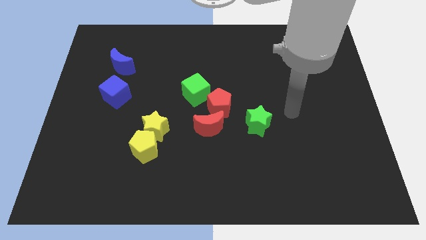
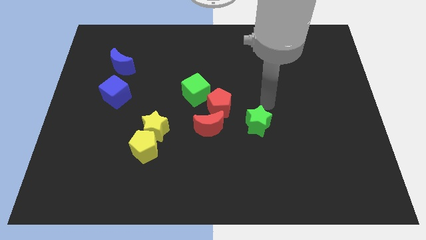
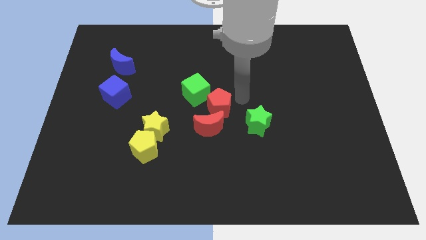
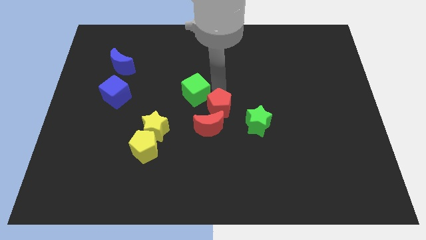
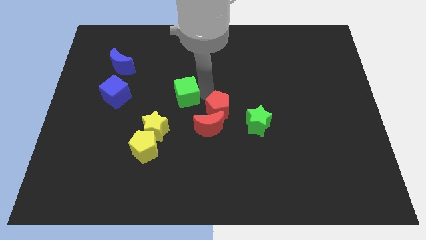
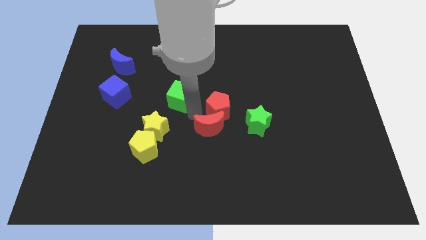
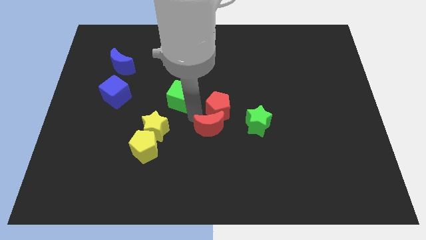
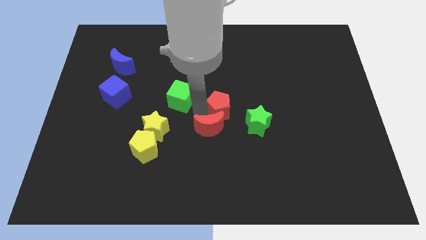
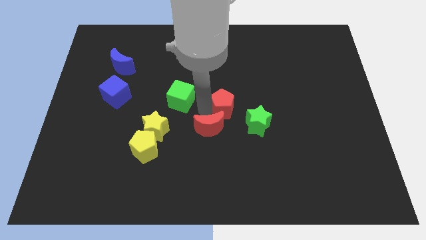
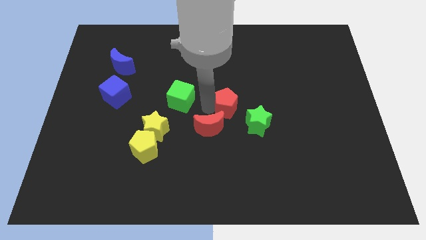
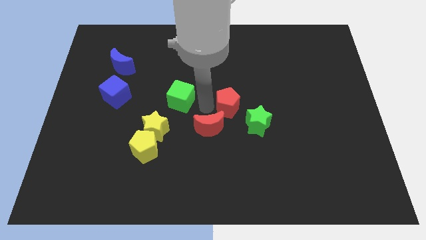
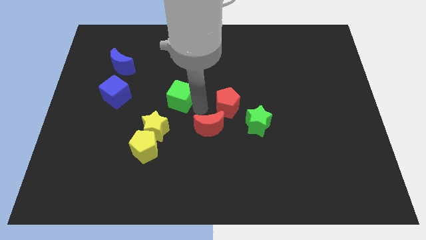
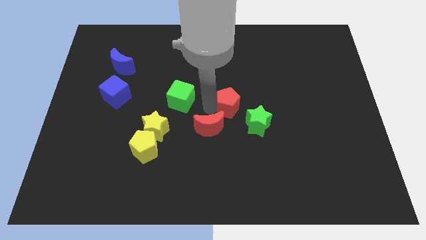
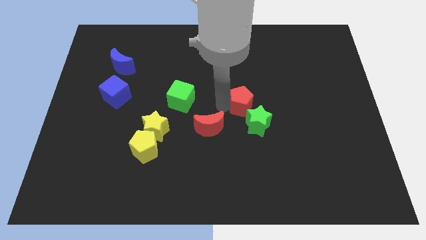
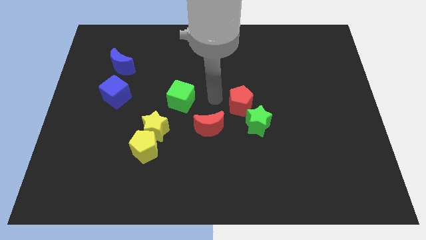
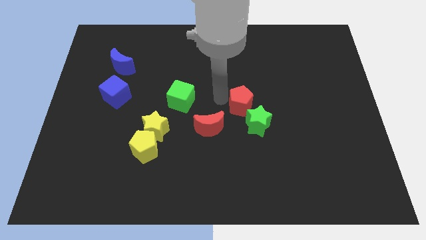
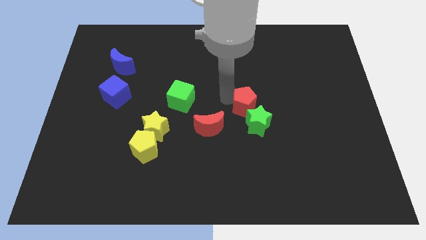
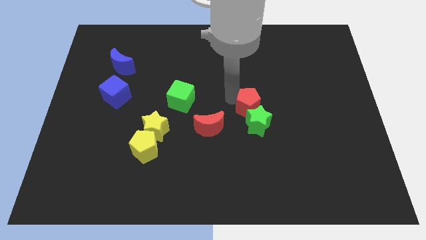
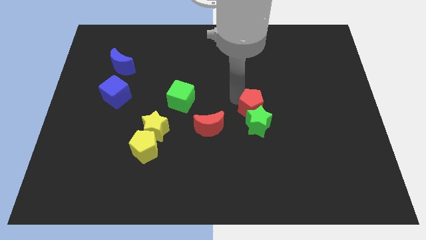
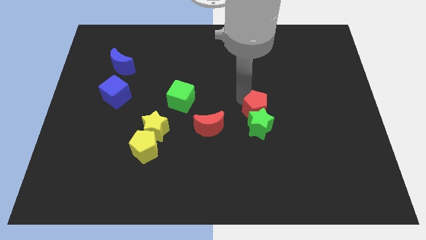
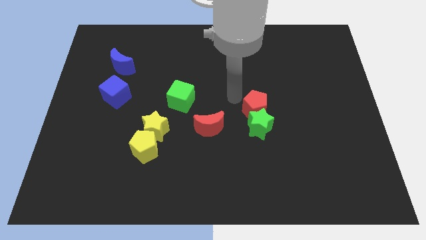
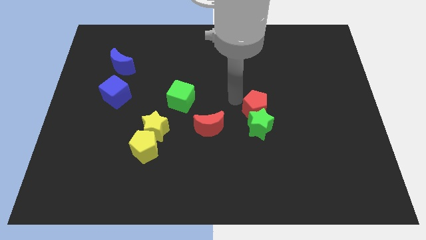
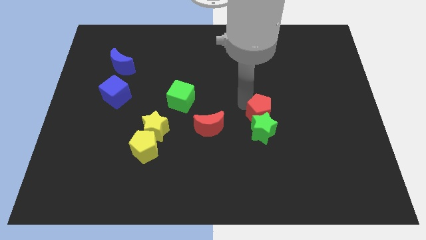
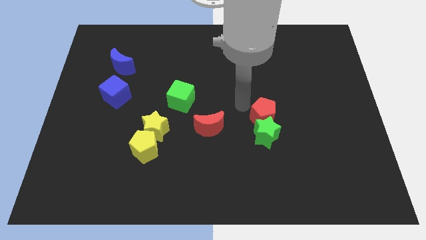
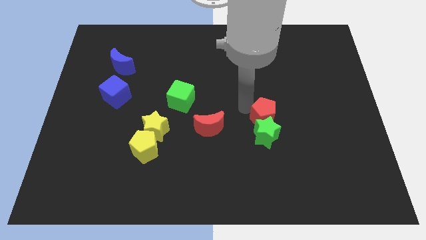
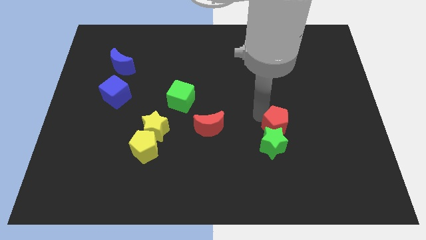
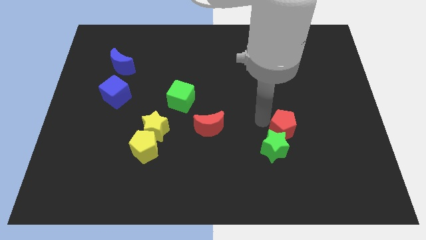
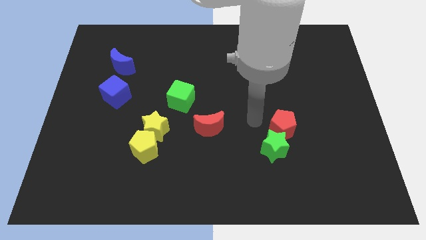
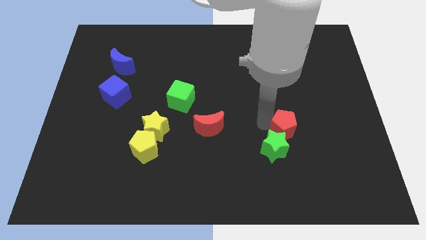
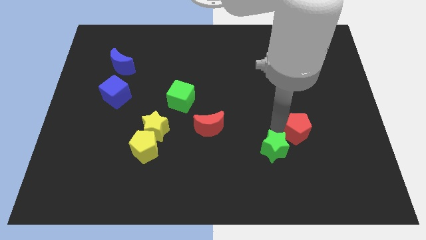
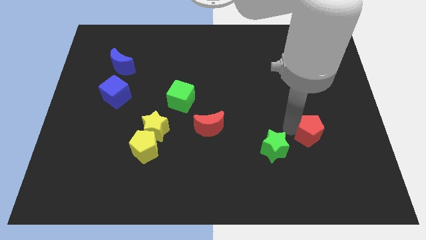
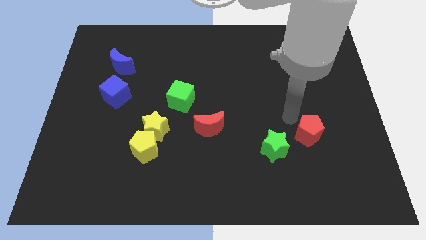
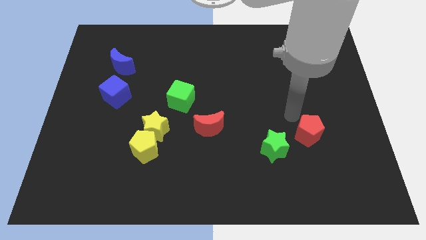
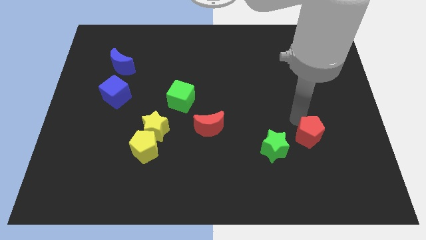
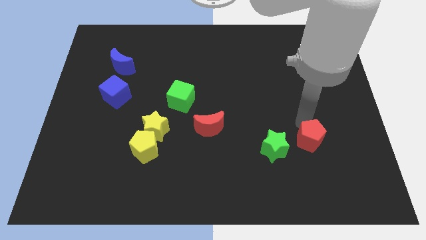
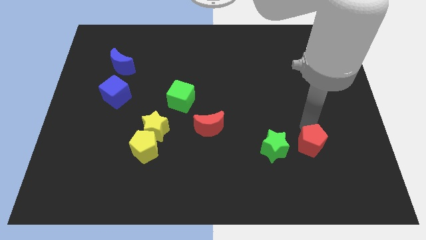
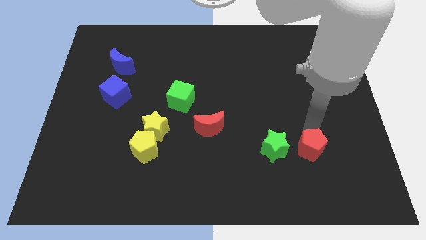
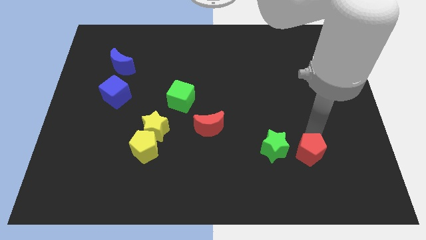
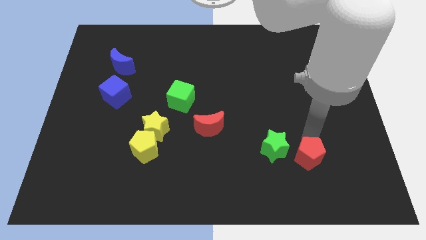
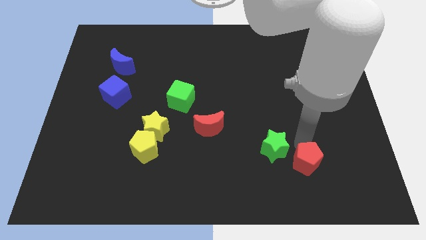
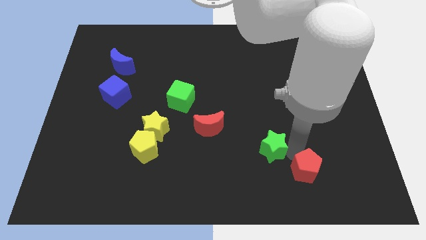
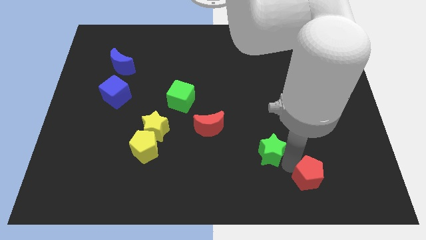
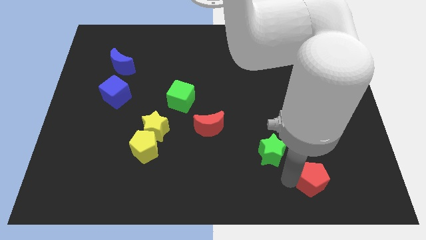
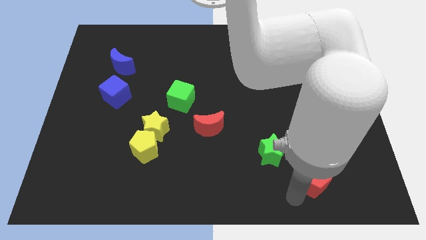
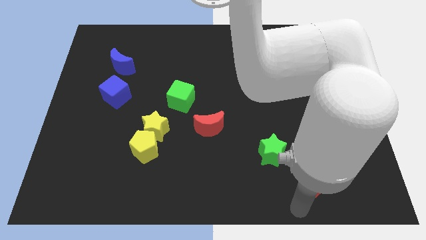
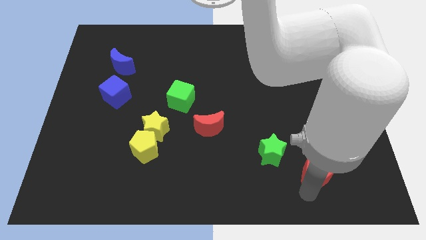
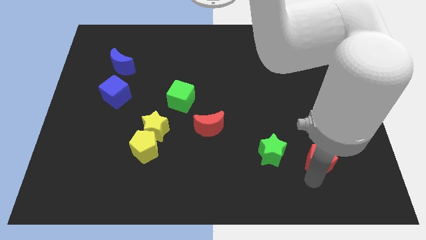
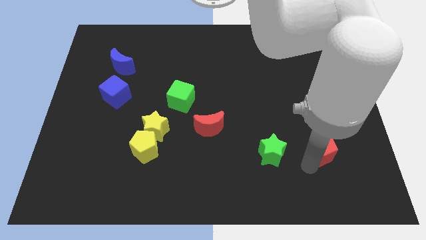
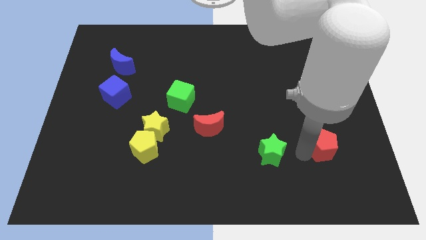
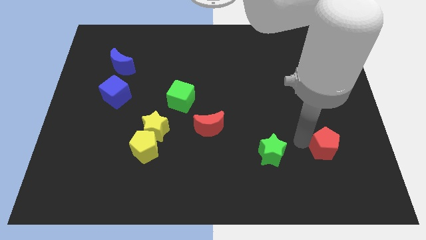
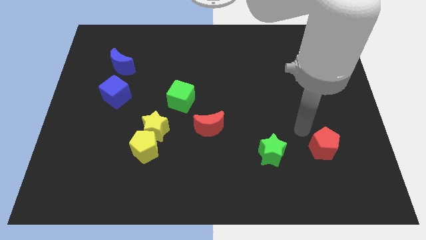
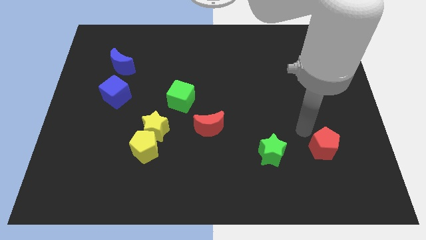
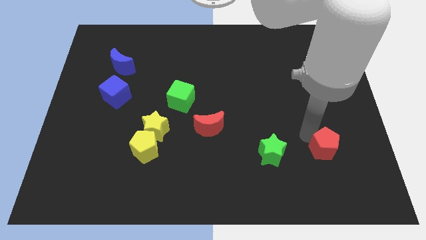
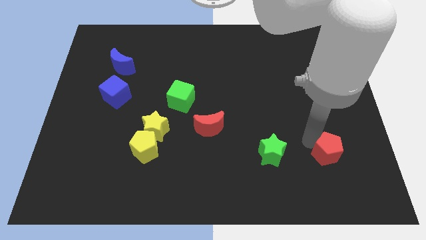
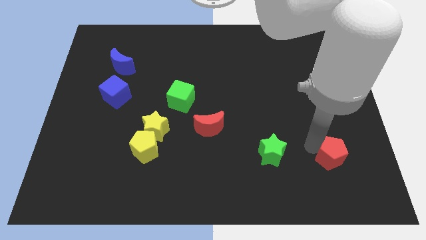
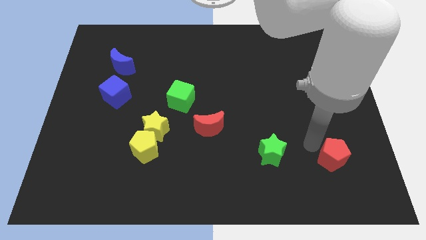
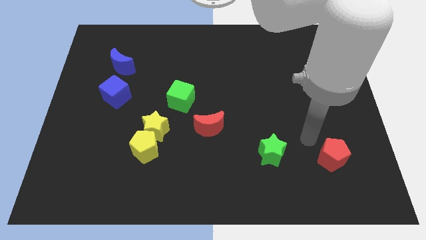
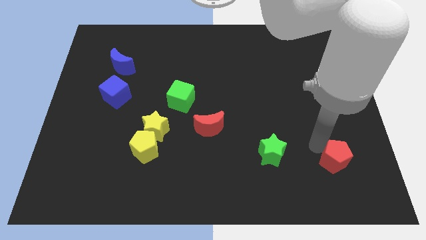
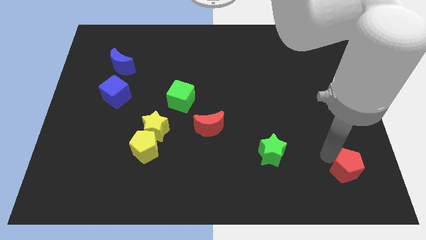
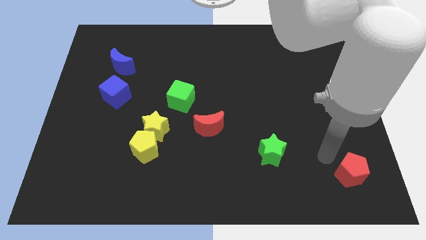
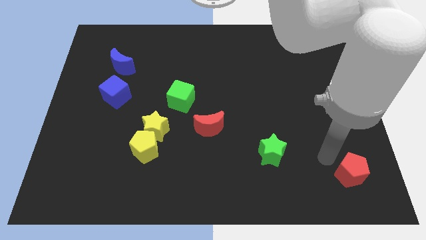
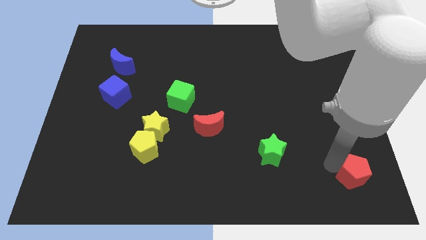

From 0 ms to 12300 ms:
push the red pentagon to the lower right corner

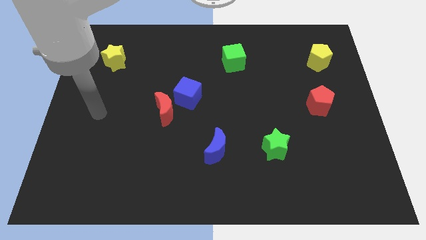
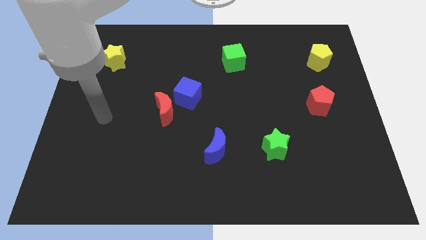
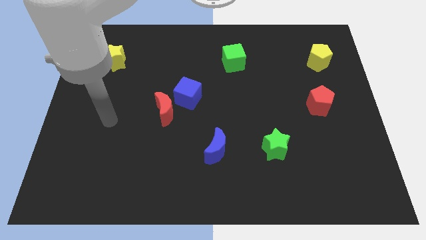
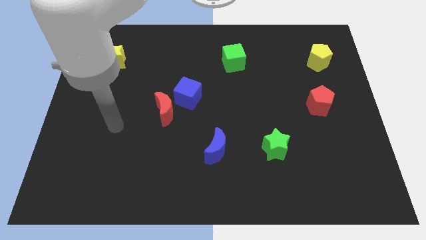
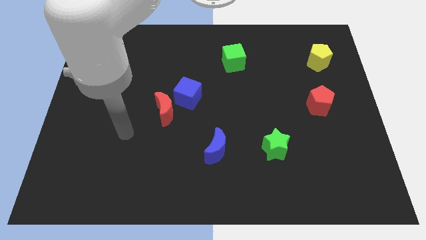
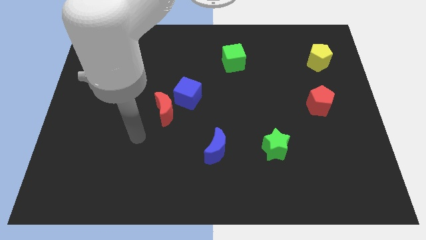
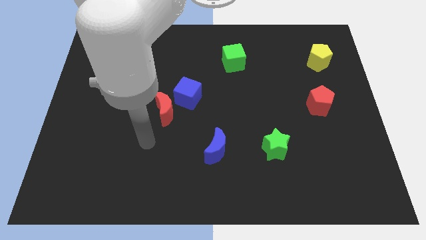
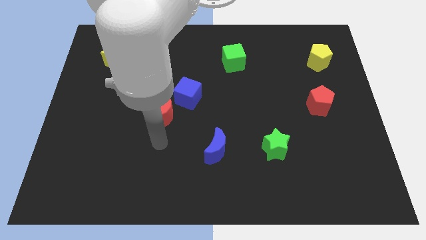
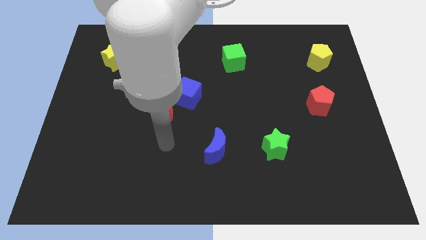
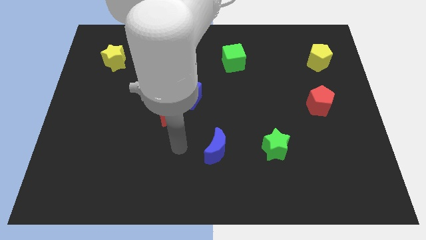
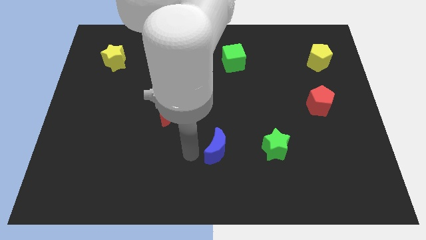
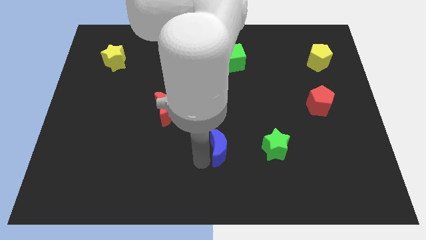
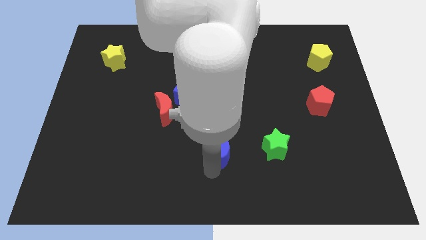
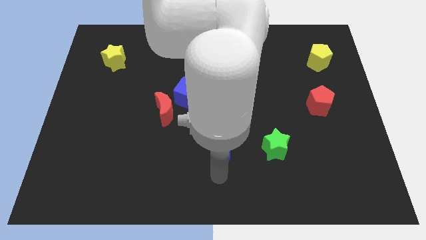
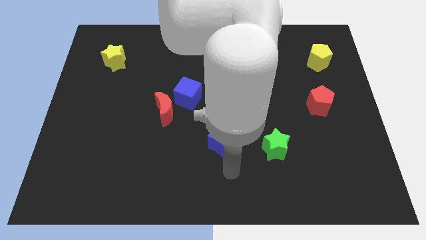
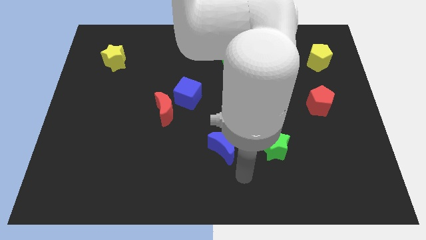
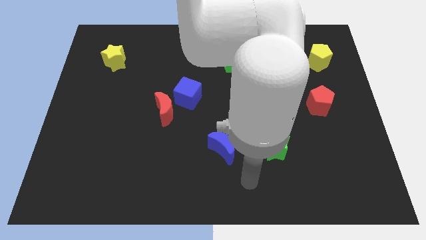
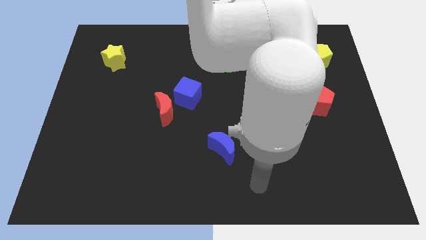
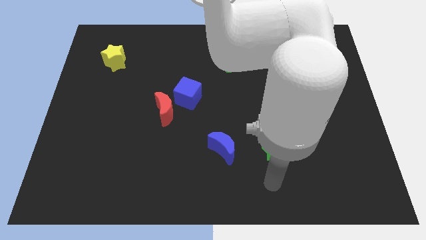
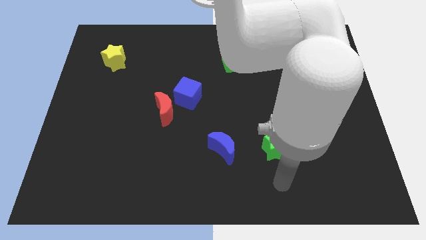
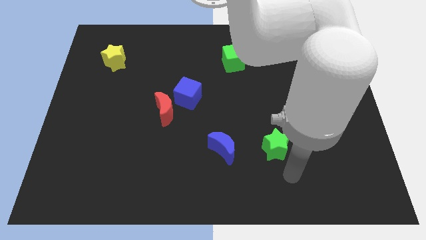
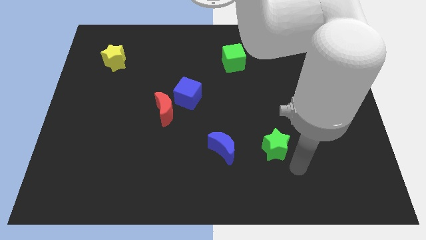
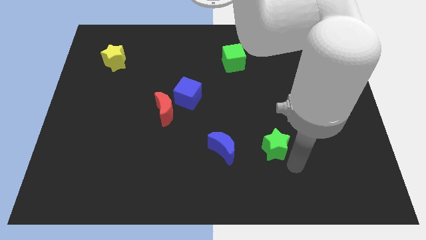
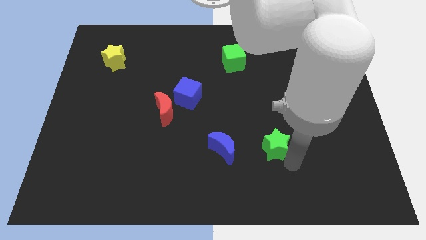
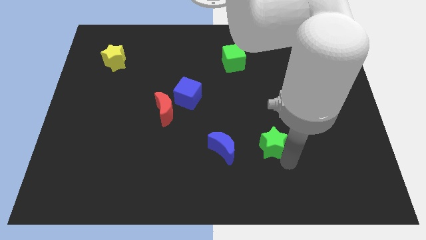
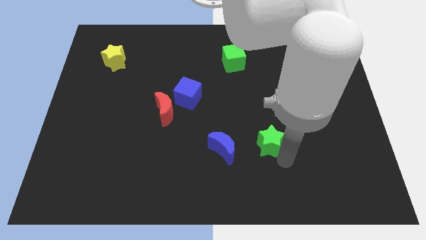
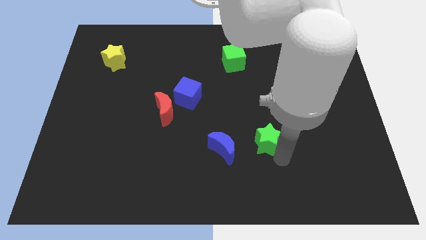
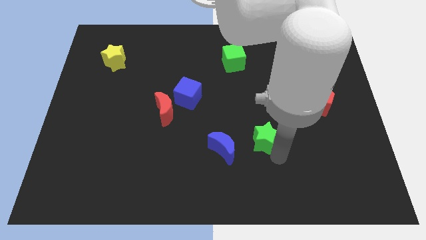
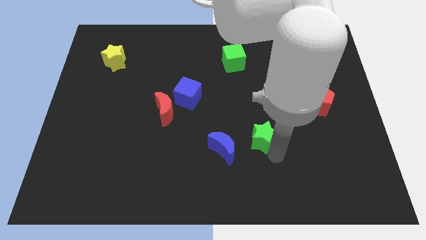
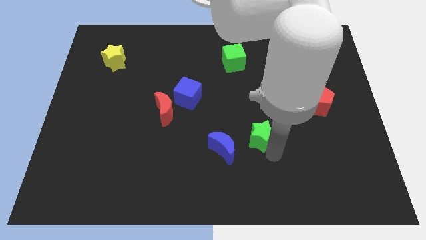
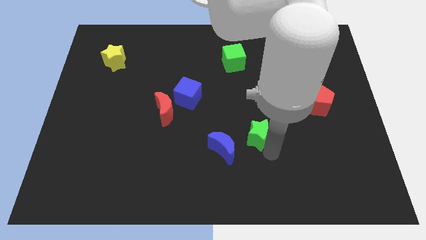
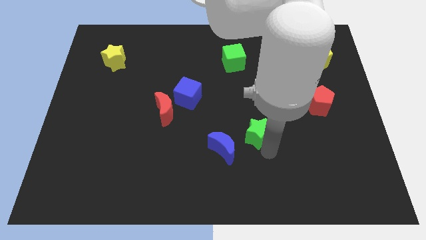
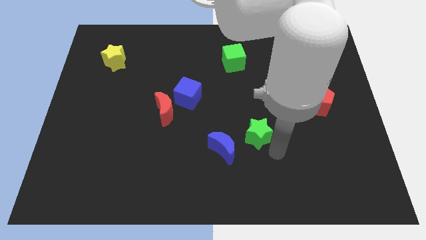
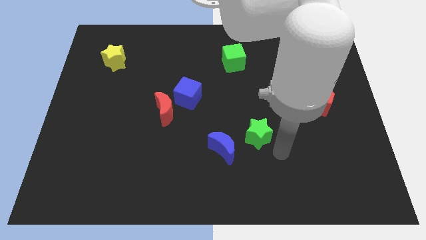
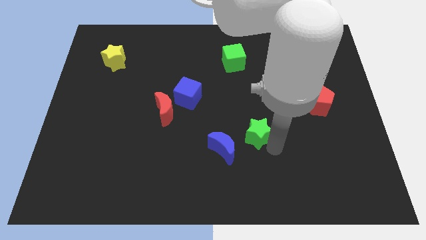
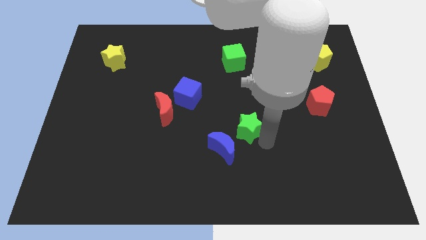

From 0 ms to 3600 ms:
move the green star to the center of the board
